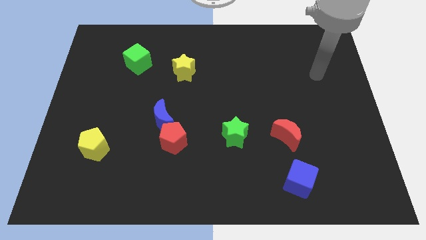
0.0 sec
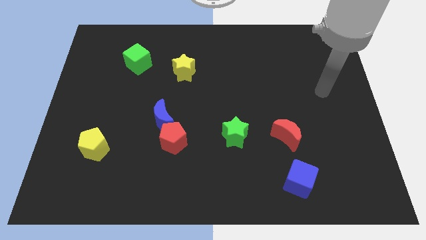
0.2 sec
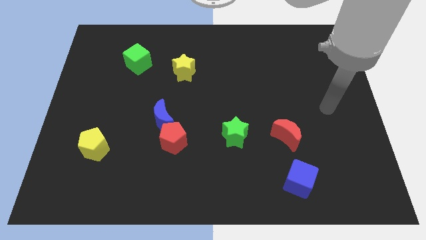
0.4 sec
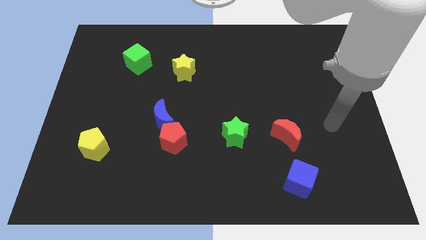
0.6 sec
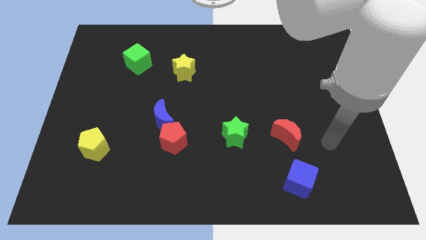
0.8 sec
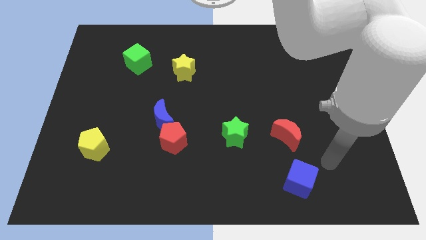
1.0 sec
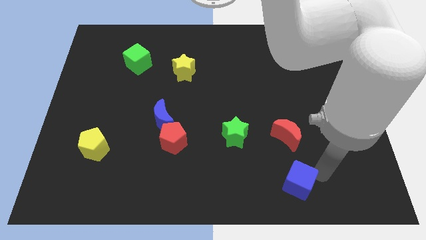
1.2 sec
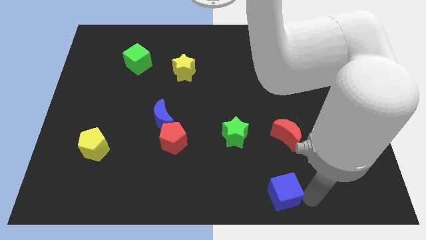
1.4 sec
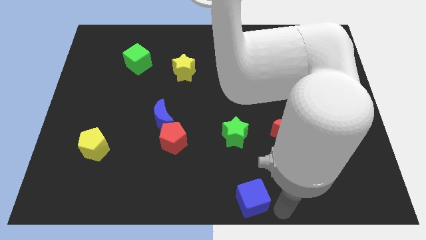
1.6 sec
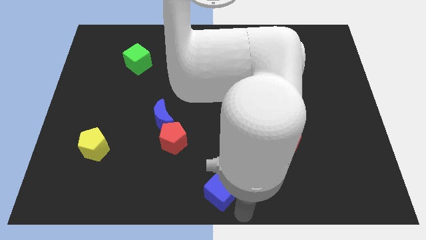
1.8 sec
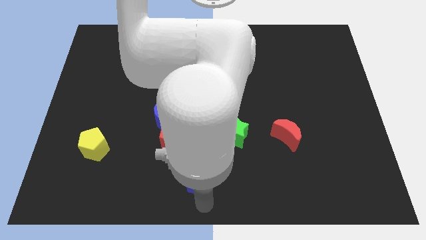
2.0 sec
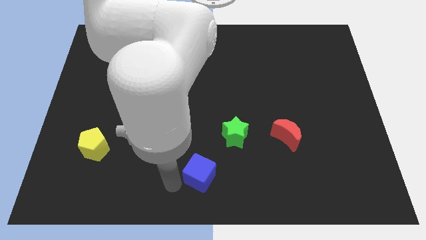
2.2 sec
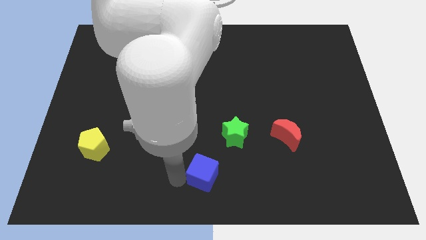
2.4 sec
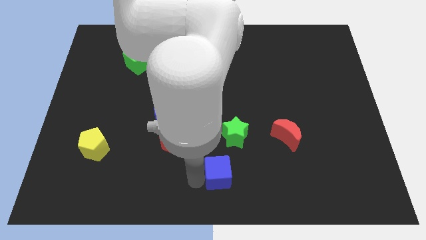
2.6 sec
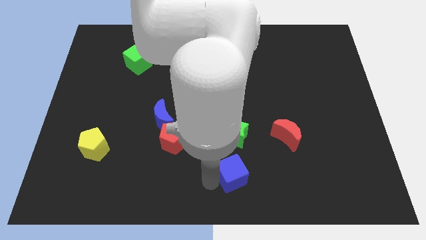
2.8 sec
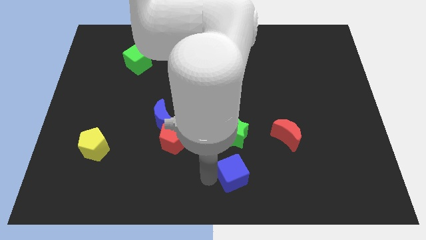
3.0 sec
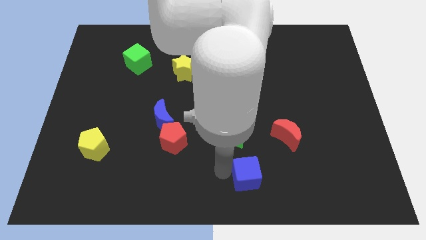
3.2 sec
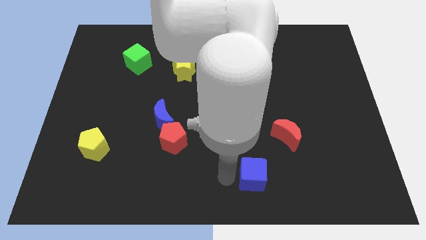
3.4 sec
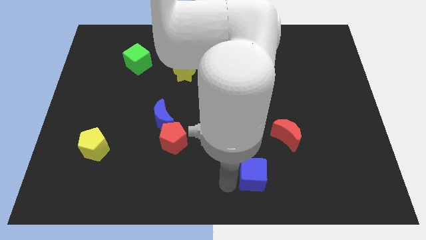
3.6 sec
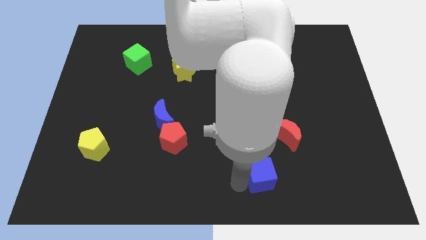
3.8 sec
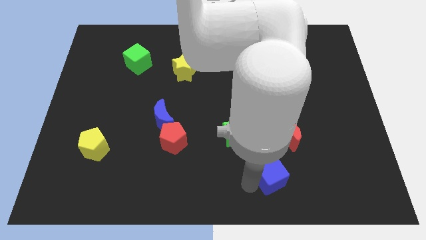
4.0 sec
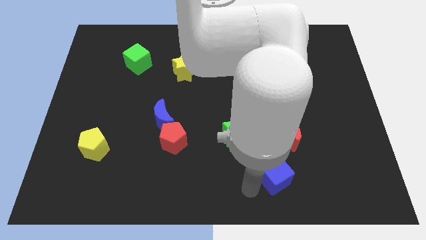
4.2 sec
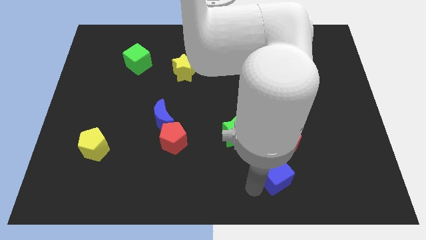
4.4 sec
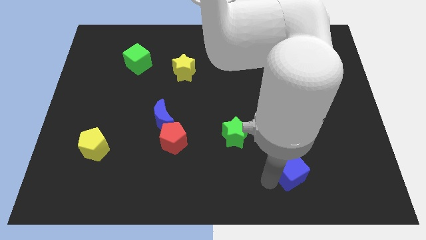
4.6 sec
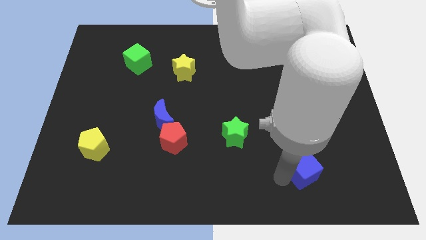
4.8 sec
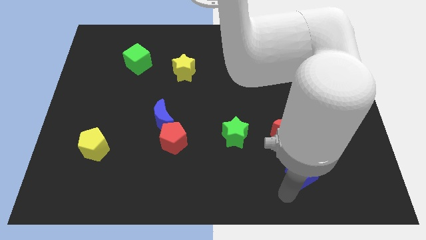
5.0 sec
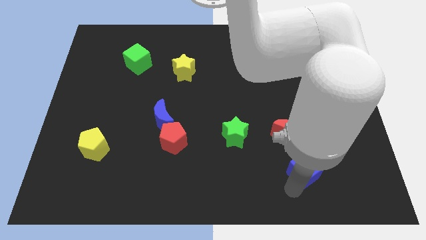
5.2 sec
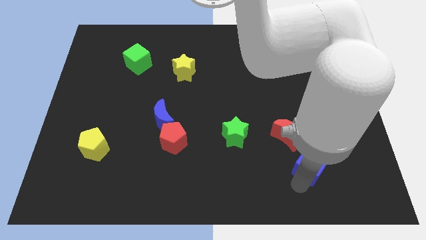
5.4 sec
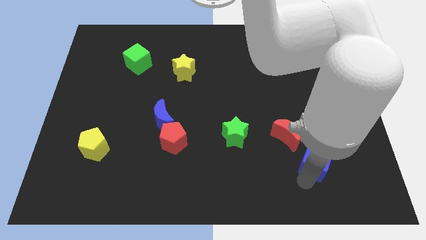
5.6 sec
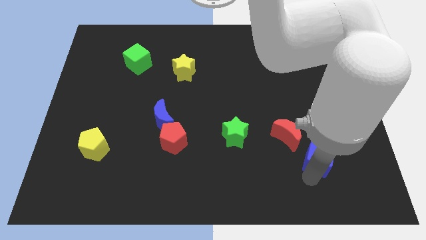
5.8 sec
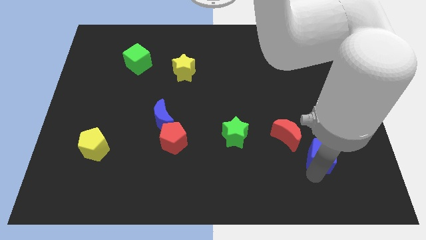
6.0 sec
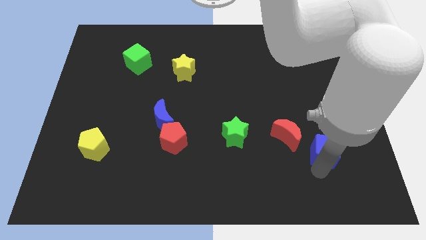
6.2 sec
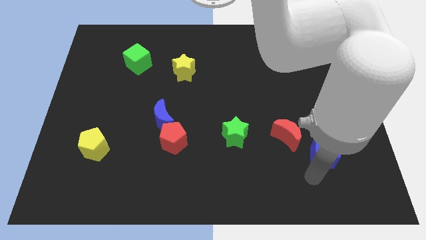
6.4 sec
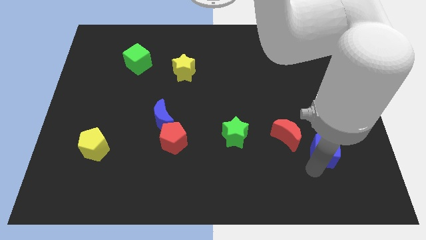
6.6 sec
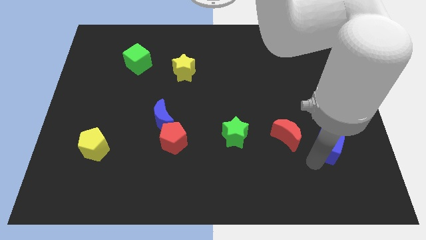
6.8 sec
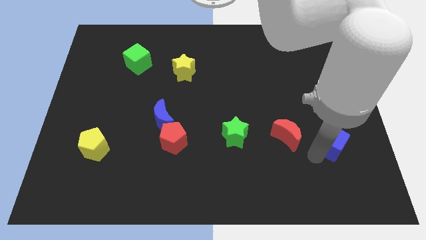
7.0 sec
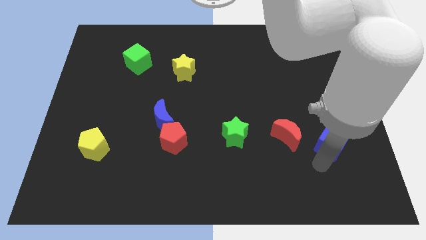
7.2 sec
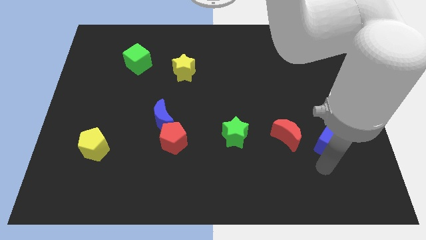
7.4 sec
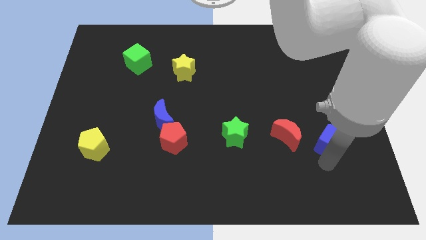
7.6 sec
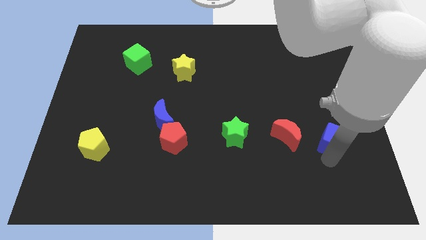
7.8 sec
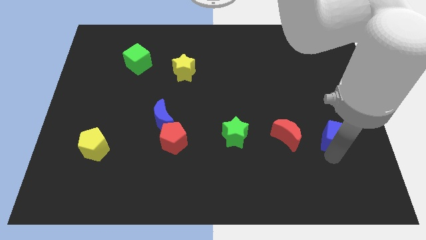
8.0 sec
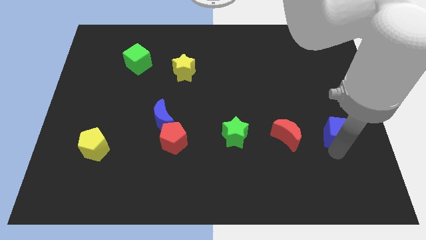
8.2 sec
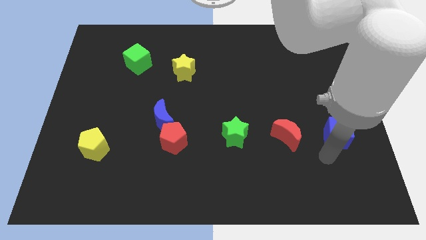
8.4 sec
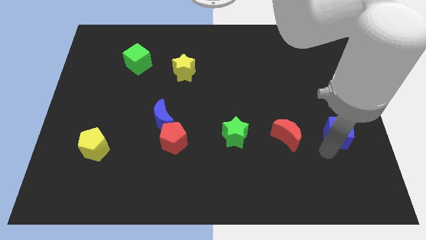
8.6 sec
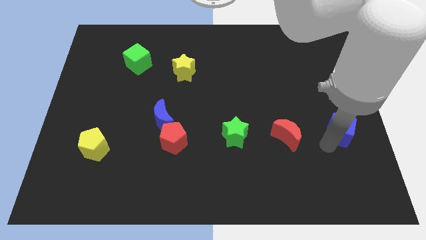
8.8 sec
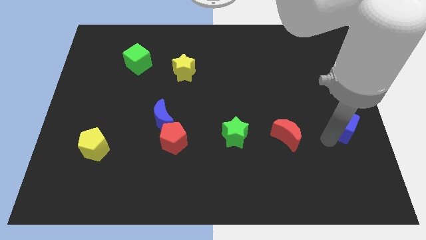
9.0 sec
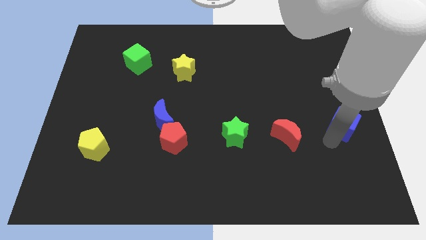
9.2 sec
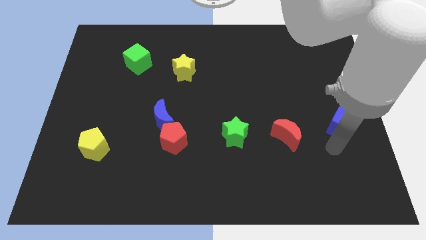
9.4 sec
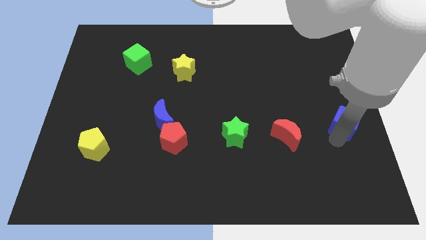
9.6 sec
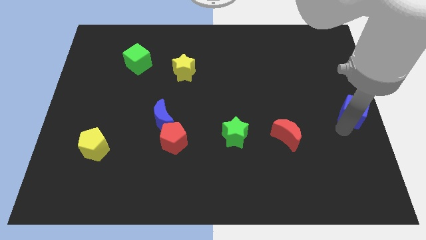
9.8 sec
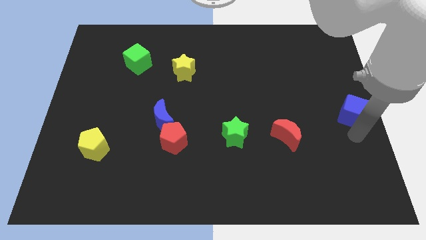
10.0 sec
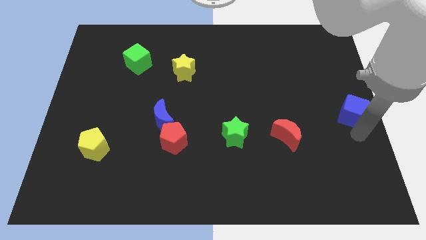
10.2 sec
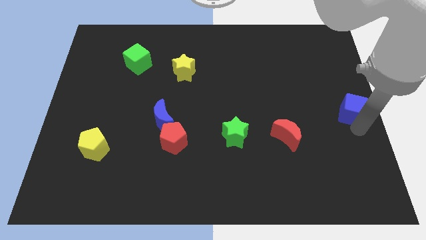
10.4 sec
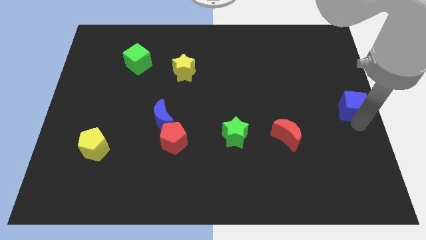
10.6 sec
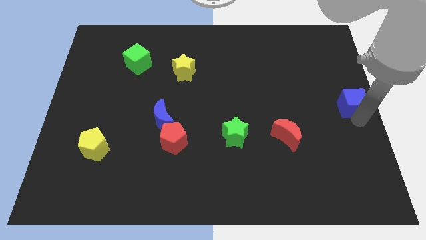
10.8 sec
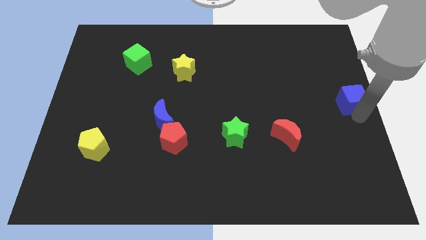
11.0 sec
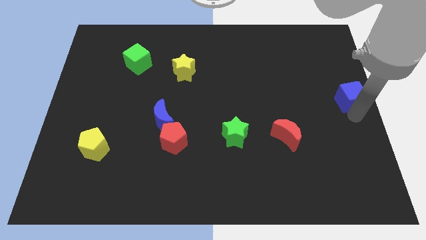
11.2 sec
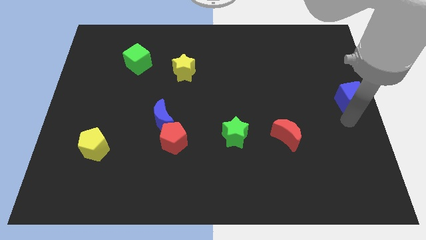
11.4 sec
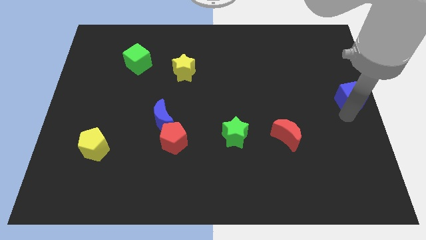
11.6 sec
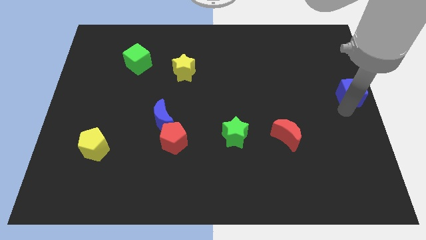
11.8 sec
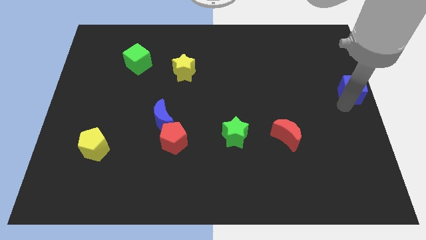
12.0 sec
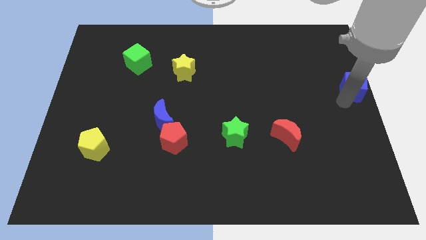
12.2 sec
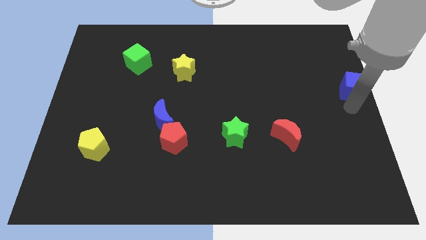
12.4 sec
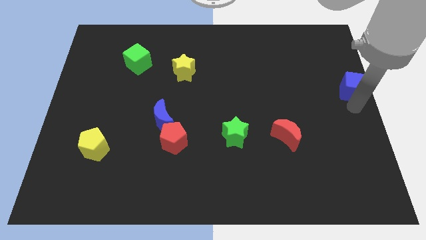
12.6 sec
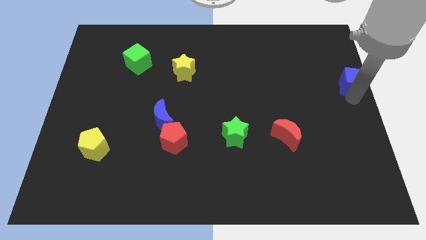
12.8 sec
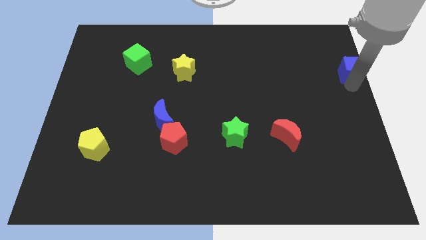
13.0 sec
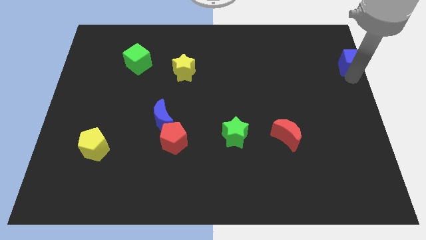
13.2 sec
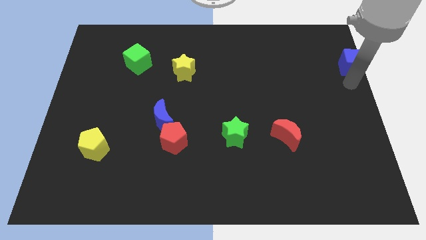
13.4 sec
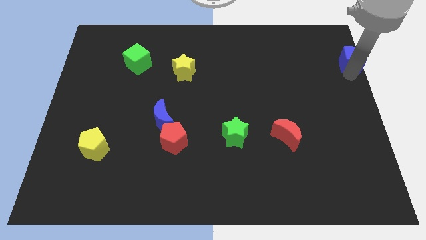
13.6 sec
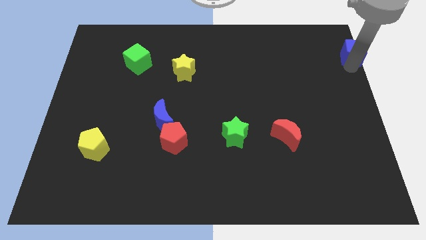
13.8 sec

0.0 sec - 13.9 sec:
put the blue cube to the top right of the board
